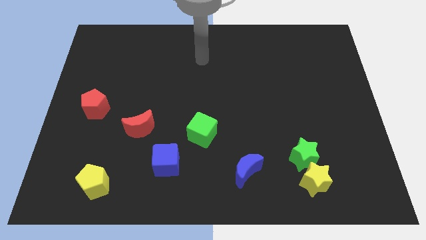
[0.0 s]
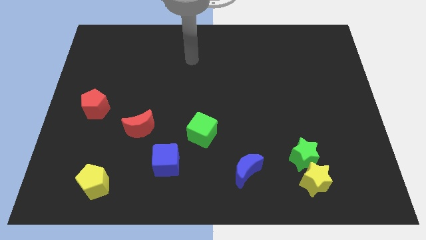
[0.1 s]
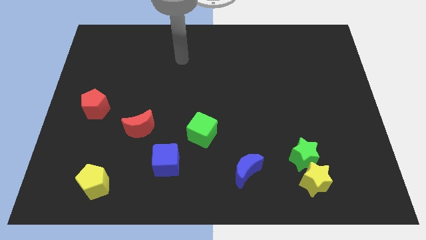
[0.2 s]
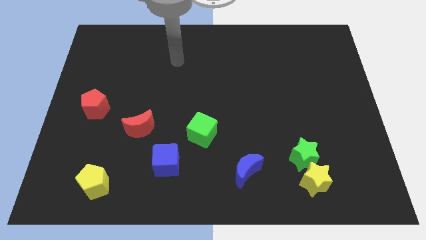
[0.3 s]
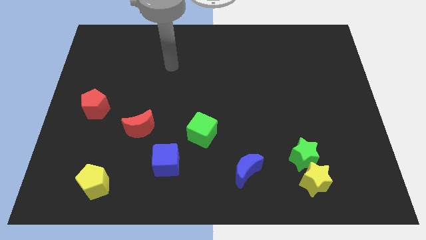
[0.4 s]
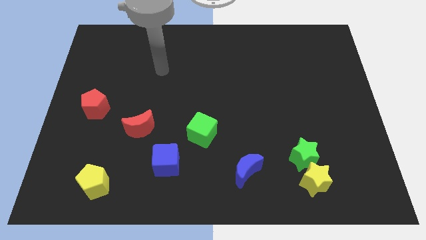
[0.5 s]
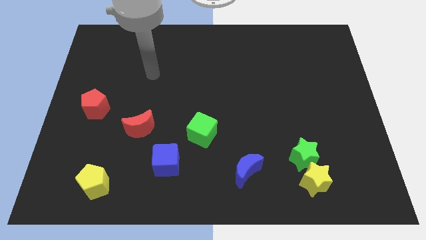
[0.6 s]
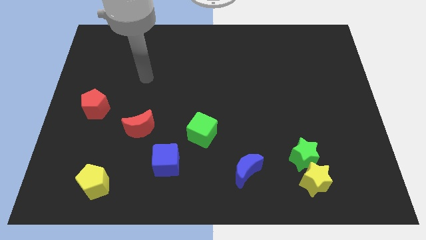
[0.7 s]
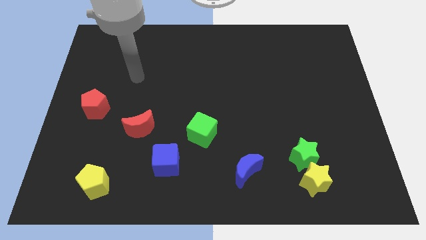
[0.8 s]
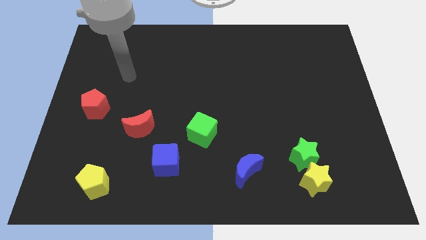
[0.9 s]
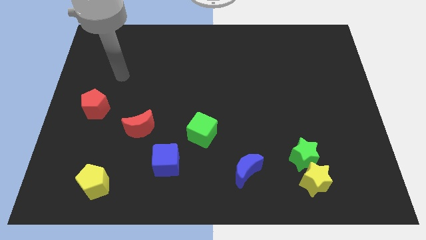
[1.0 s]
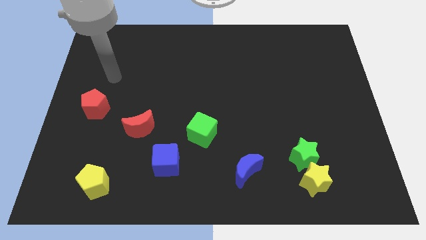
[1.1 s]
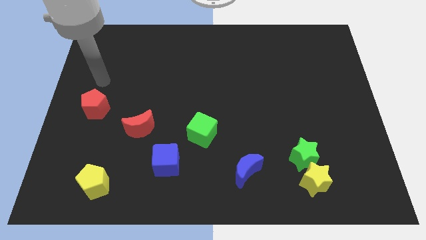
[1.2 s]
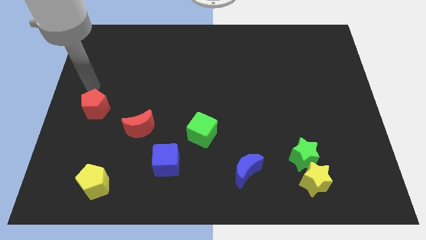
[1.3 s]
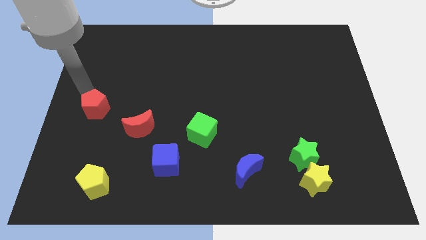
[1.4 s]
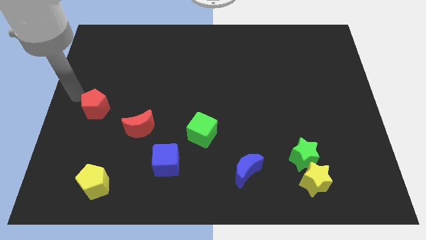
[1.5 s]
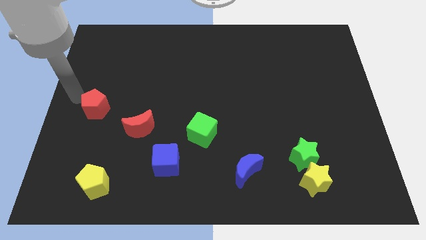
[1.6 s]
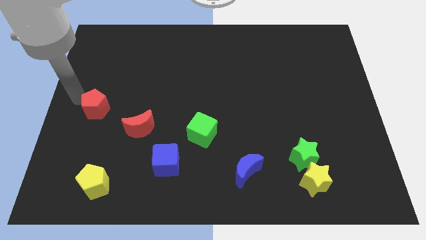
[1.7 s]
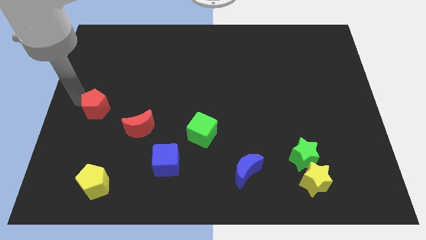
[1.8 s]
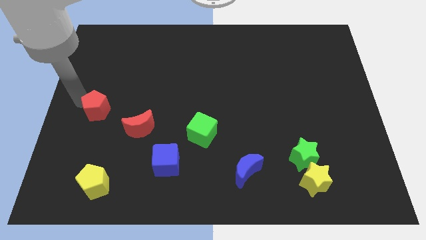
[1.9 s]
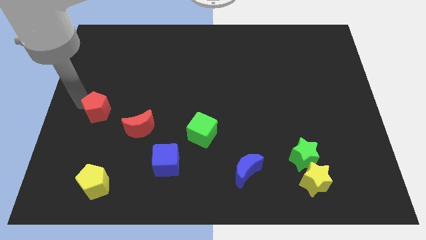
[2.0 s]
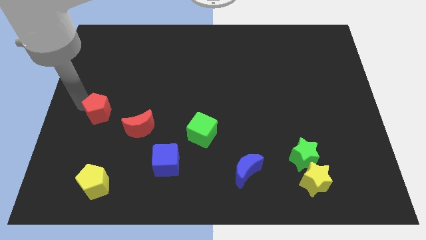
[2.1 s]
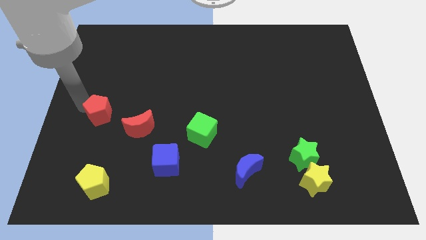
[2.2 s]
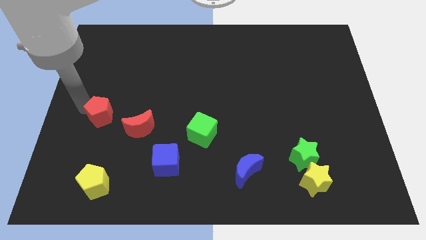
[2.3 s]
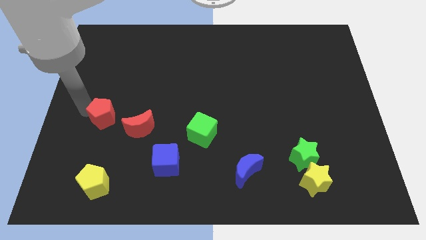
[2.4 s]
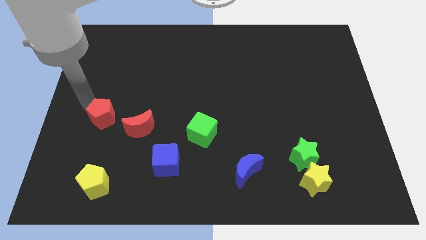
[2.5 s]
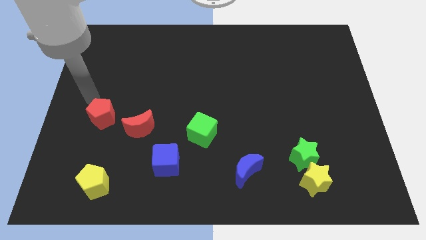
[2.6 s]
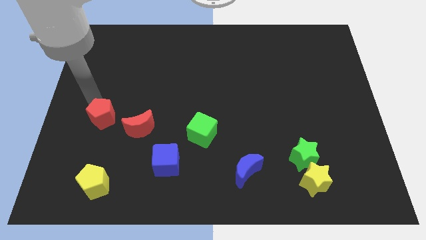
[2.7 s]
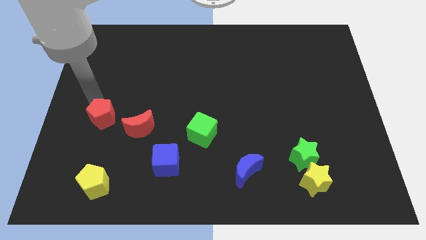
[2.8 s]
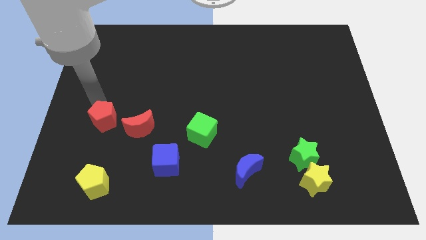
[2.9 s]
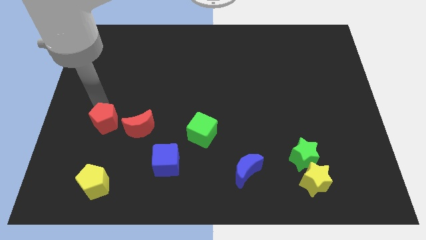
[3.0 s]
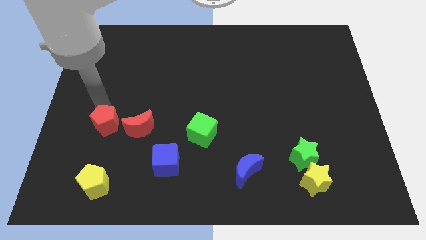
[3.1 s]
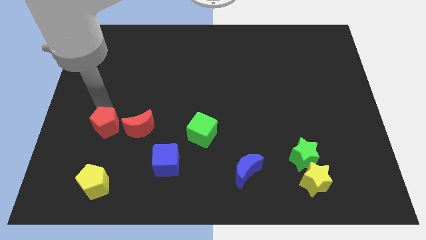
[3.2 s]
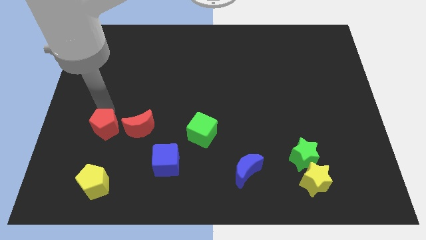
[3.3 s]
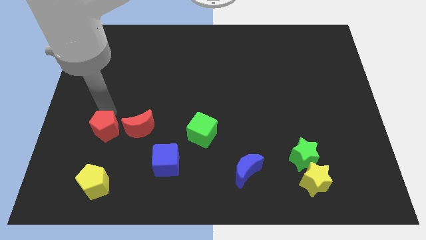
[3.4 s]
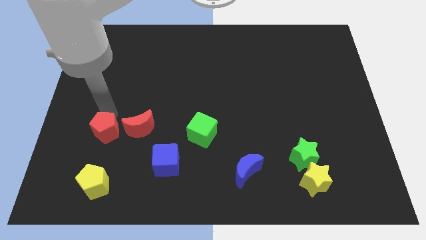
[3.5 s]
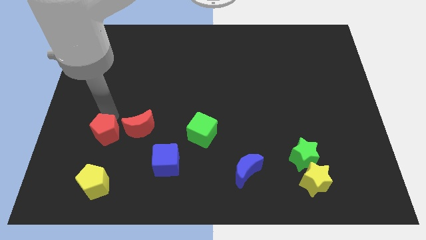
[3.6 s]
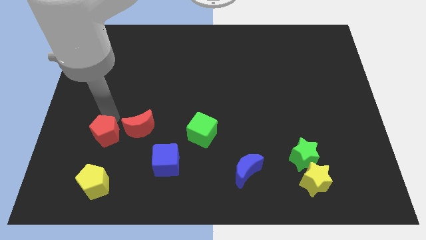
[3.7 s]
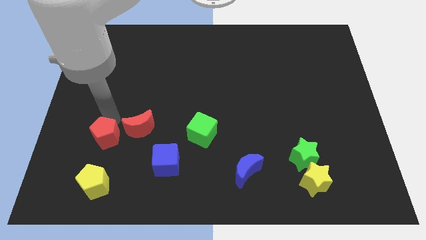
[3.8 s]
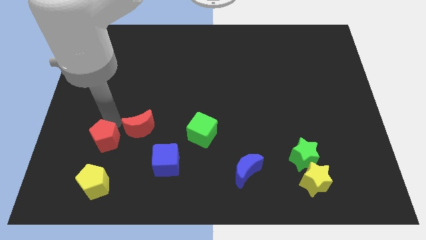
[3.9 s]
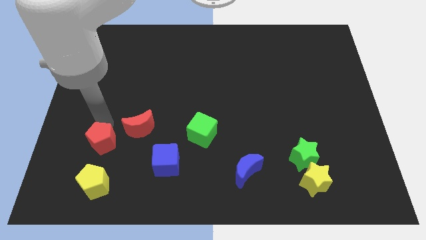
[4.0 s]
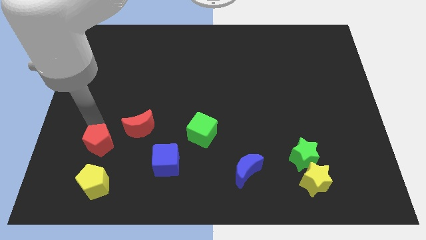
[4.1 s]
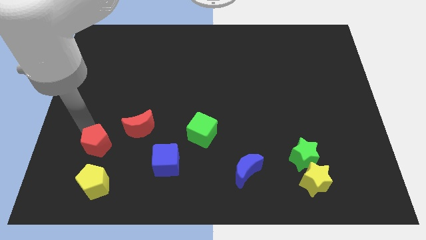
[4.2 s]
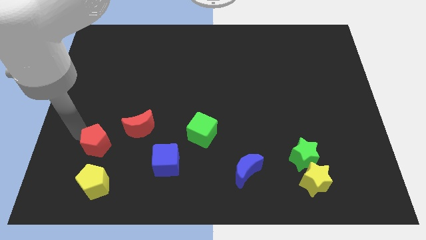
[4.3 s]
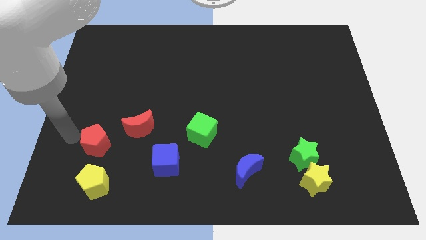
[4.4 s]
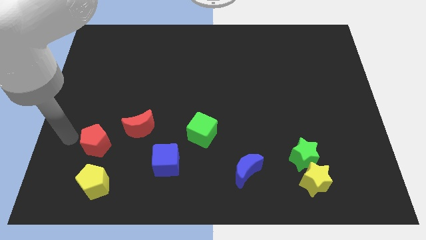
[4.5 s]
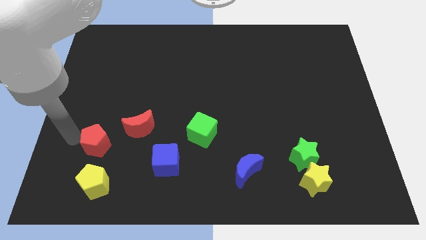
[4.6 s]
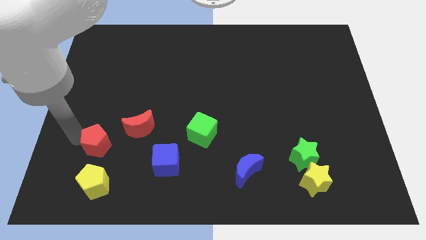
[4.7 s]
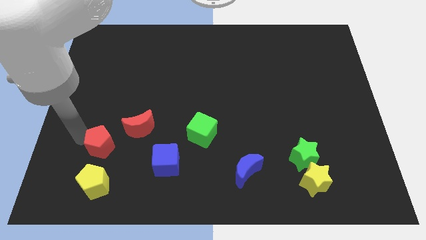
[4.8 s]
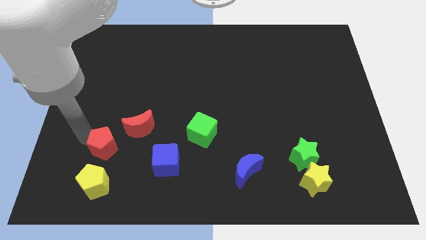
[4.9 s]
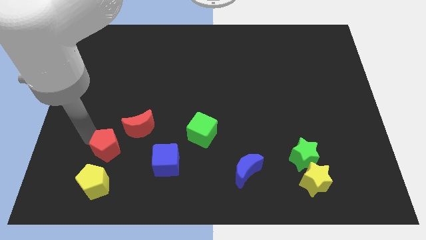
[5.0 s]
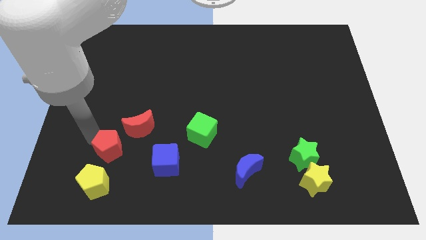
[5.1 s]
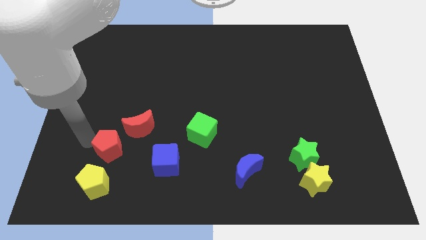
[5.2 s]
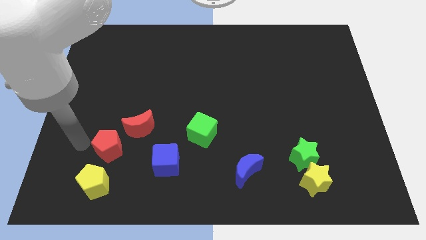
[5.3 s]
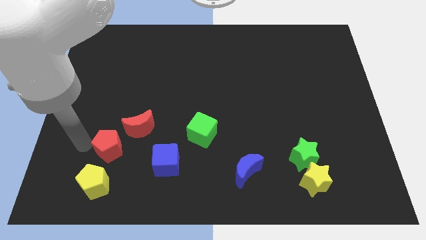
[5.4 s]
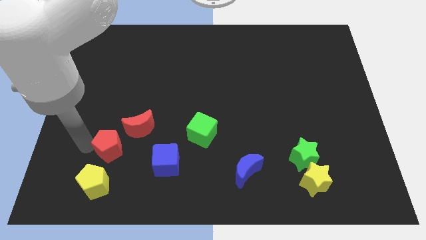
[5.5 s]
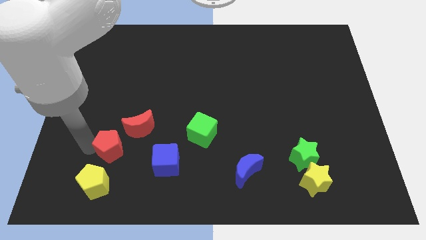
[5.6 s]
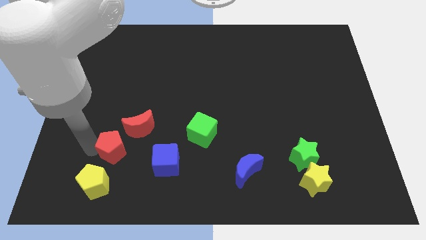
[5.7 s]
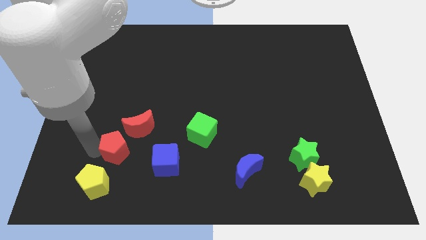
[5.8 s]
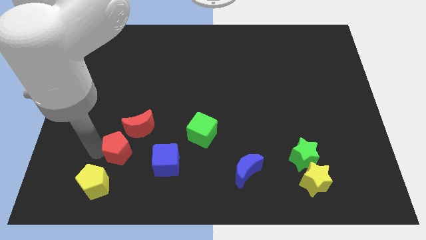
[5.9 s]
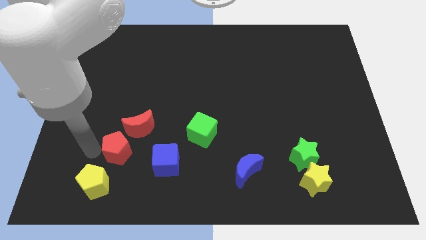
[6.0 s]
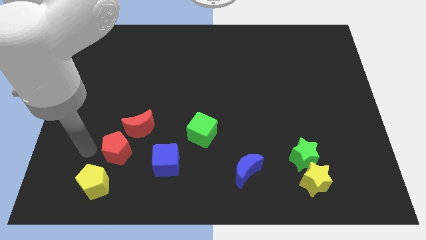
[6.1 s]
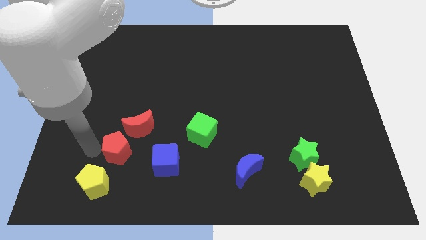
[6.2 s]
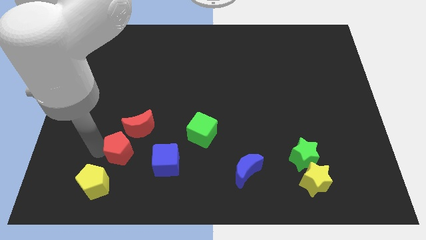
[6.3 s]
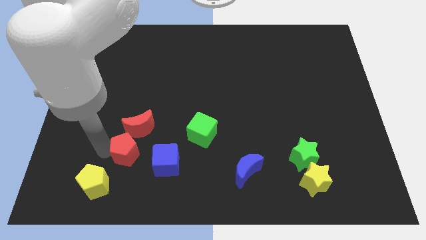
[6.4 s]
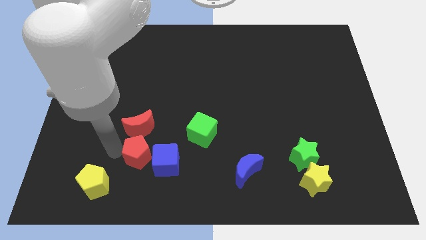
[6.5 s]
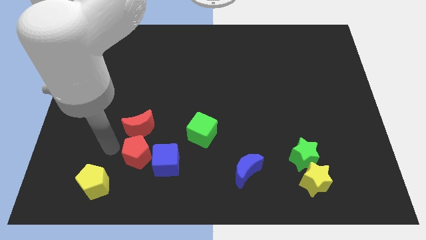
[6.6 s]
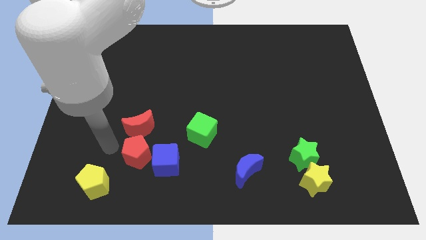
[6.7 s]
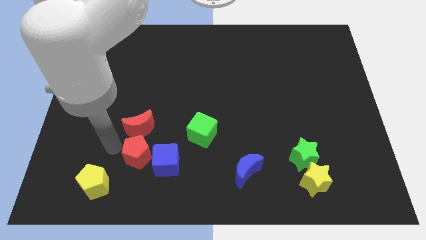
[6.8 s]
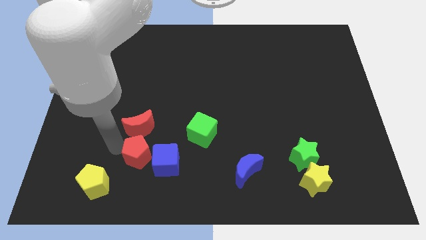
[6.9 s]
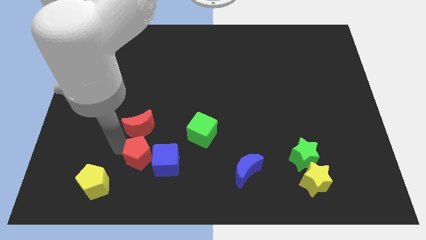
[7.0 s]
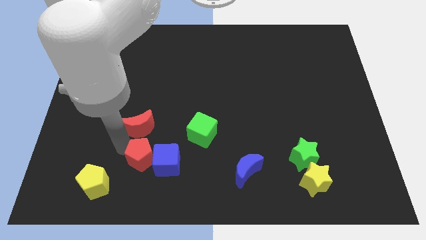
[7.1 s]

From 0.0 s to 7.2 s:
put the red pentagon towards the blue cube

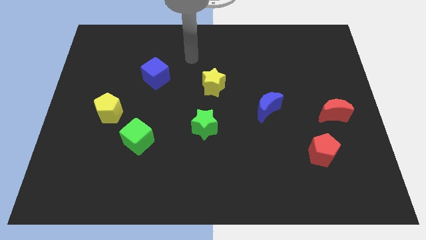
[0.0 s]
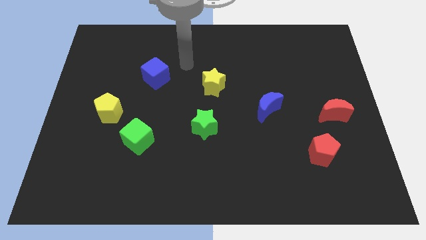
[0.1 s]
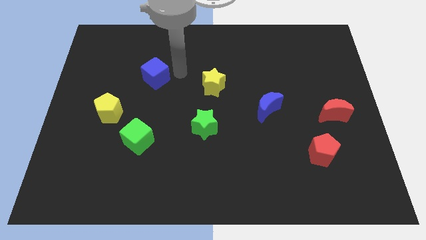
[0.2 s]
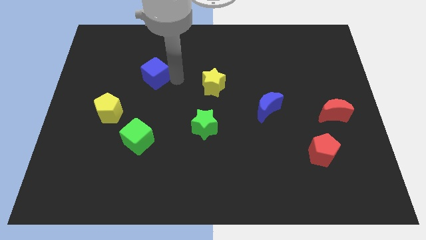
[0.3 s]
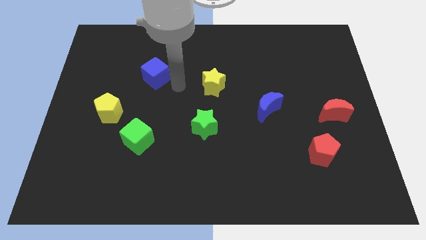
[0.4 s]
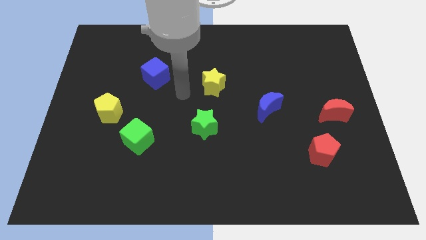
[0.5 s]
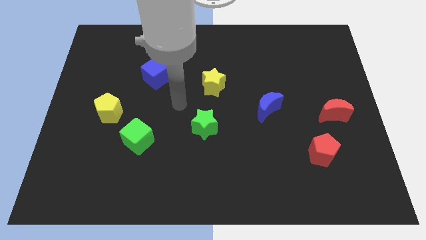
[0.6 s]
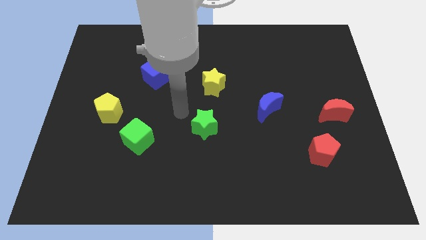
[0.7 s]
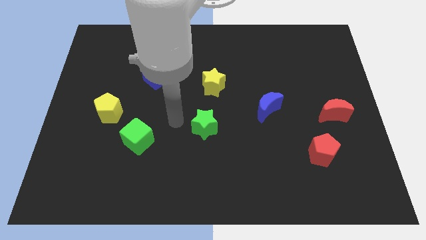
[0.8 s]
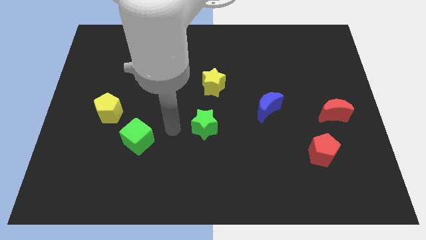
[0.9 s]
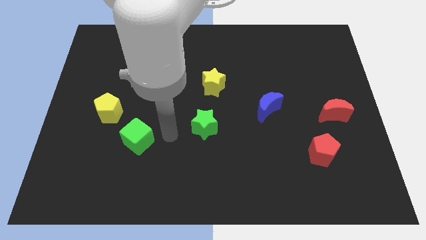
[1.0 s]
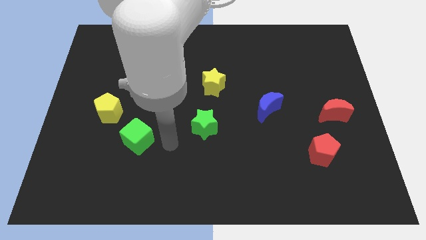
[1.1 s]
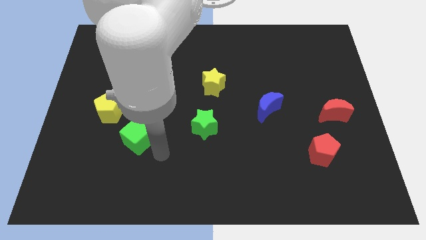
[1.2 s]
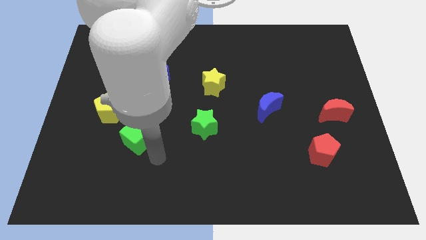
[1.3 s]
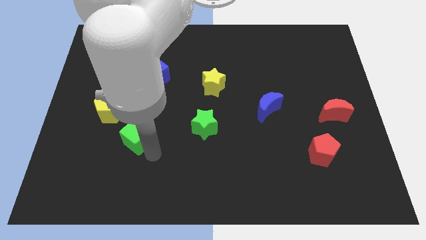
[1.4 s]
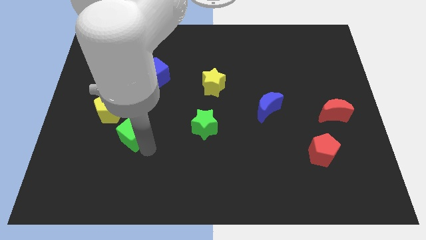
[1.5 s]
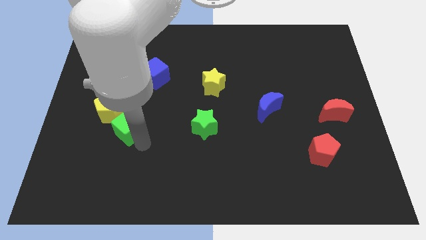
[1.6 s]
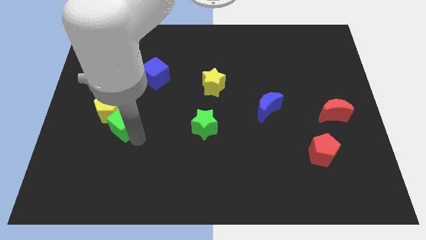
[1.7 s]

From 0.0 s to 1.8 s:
push the green cube close to the yellow pentagon
